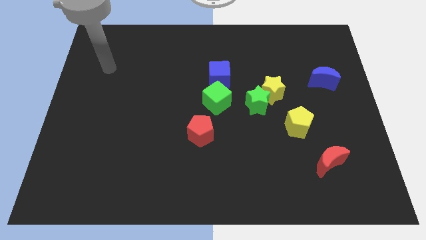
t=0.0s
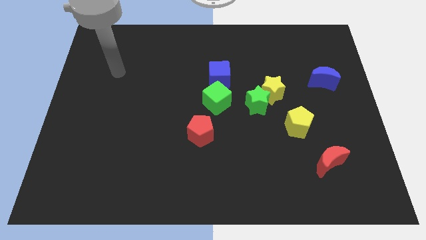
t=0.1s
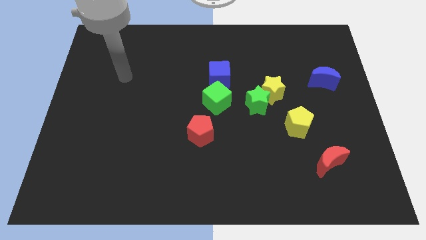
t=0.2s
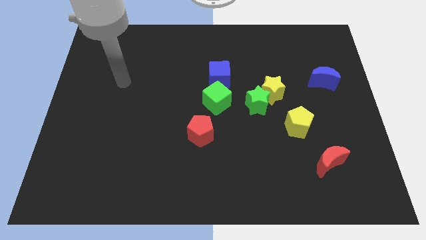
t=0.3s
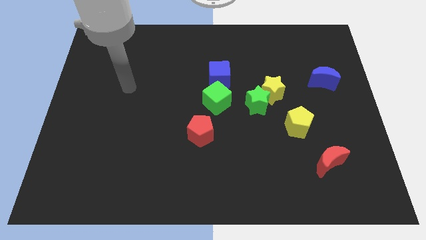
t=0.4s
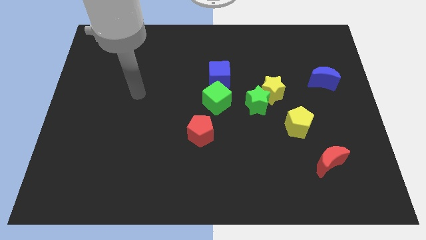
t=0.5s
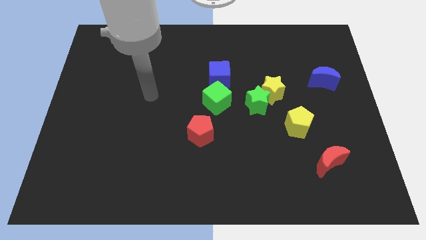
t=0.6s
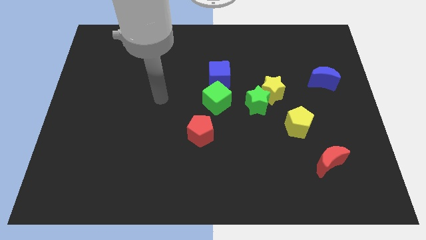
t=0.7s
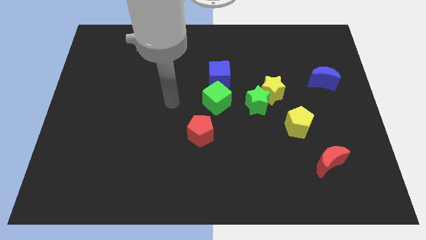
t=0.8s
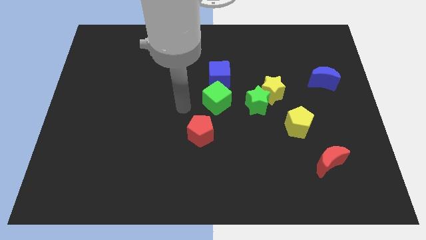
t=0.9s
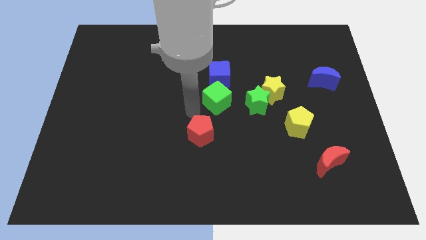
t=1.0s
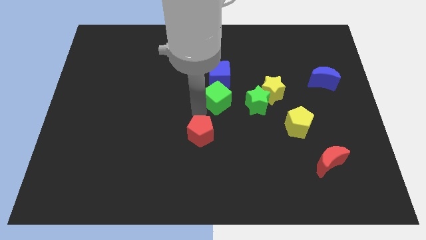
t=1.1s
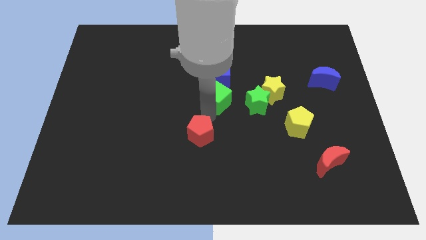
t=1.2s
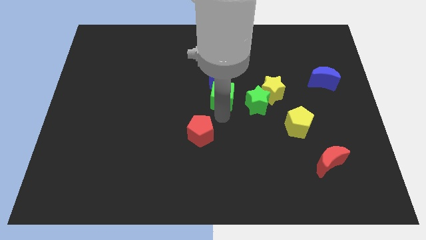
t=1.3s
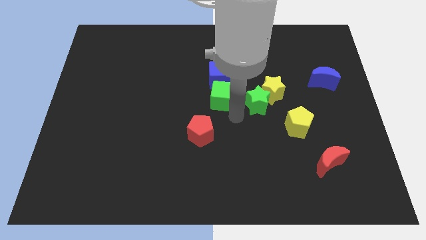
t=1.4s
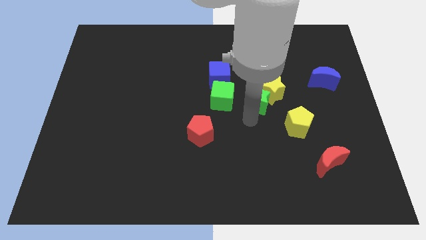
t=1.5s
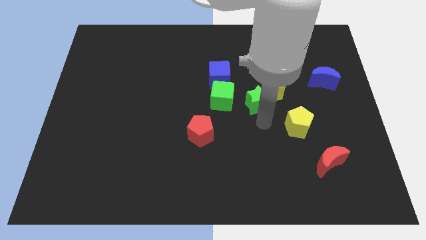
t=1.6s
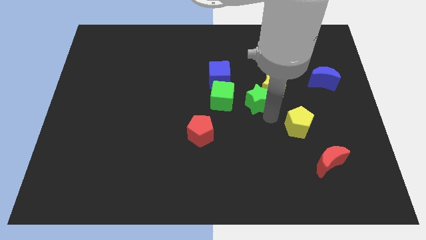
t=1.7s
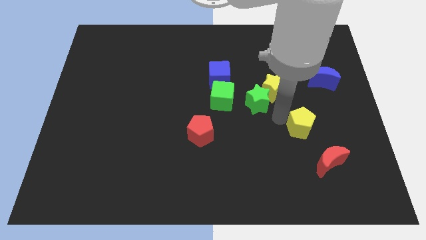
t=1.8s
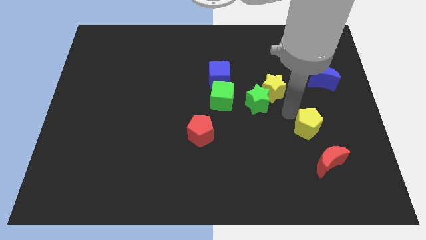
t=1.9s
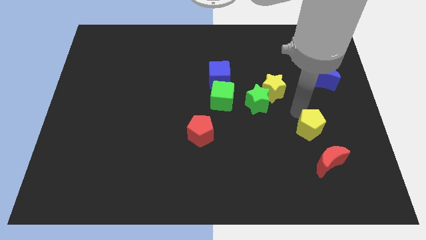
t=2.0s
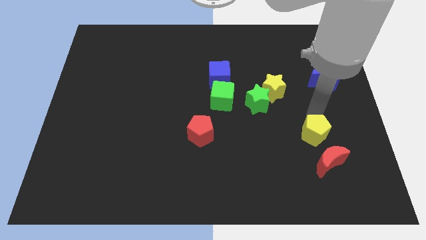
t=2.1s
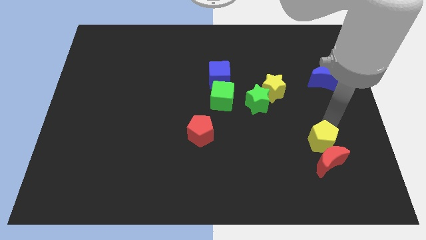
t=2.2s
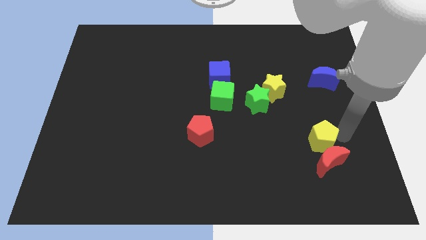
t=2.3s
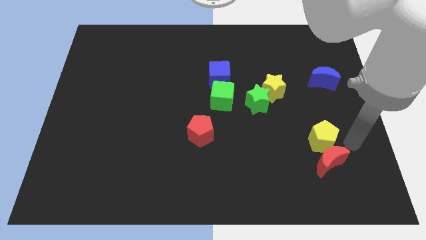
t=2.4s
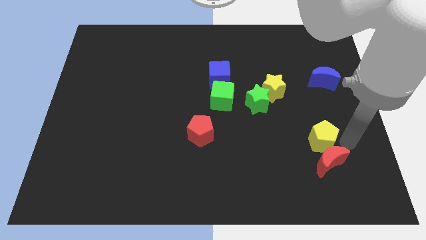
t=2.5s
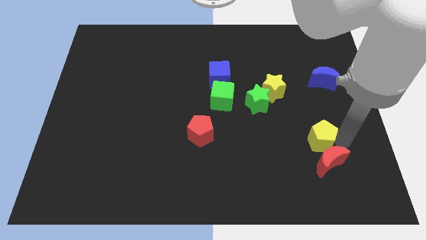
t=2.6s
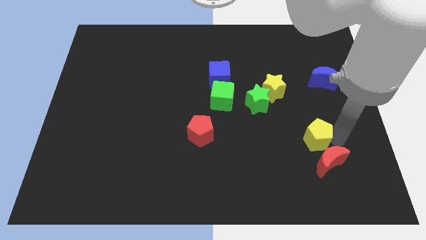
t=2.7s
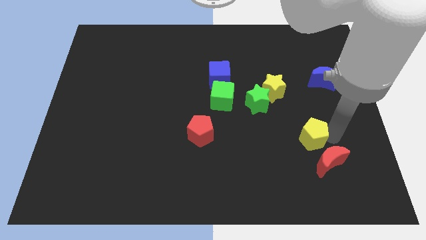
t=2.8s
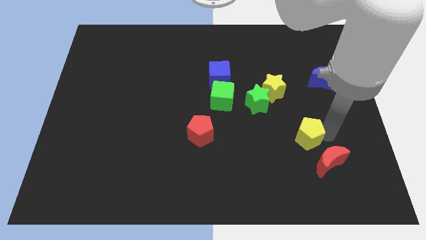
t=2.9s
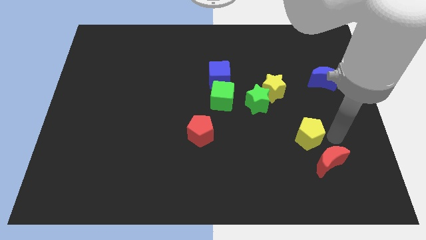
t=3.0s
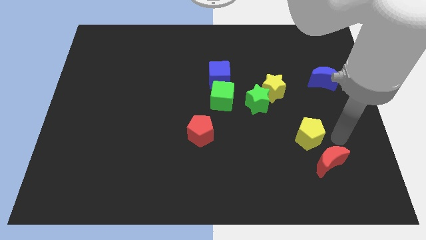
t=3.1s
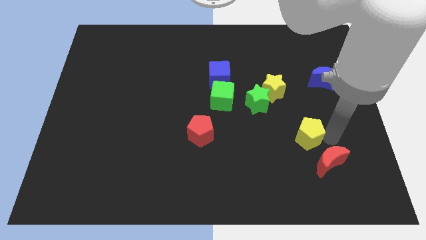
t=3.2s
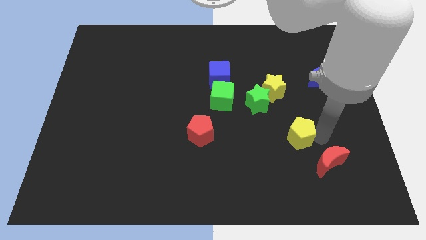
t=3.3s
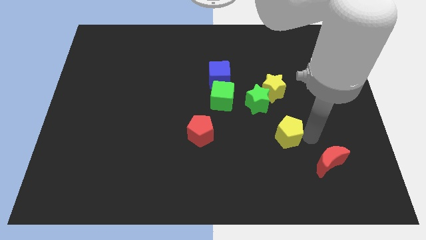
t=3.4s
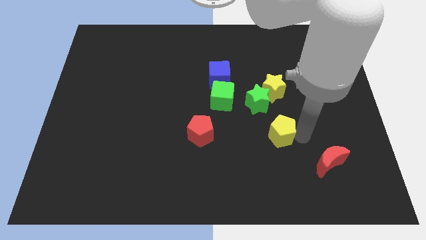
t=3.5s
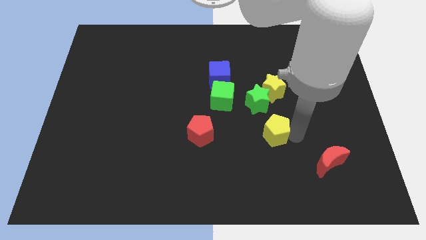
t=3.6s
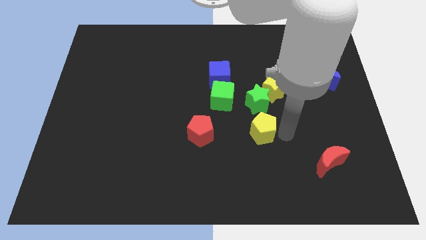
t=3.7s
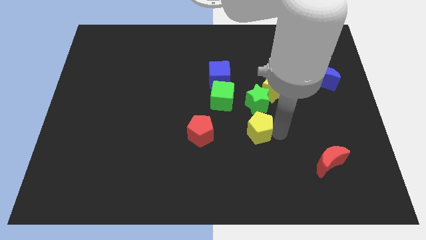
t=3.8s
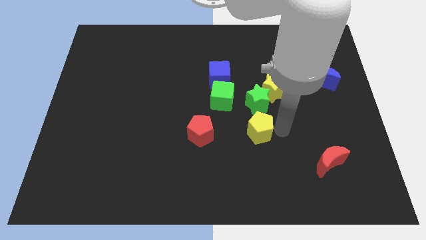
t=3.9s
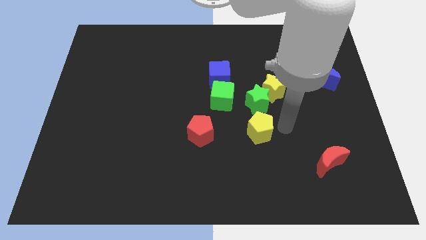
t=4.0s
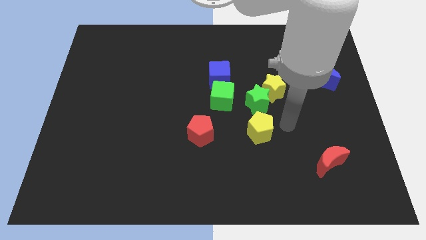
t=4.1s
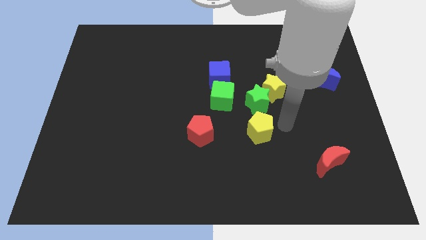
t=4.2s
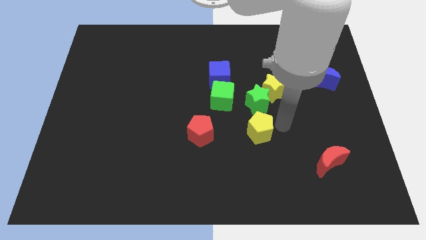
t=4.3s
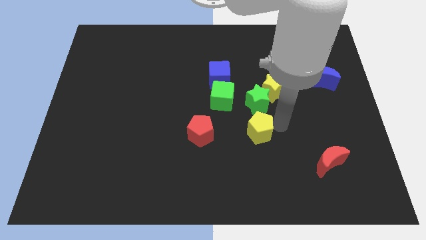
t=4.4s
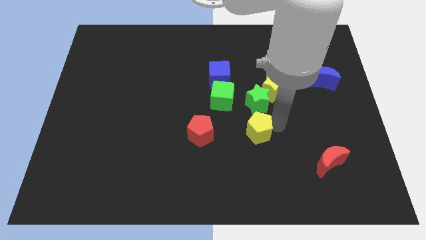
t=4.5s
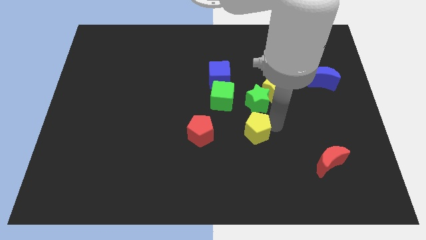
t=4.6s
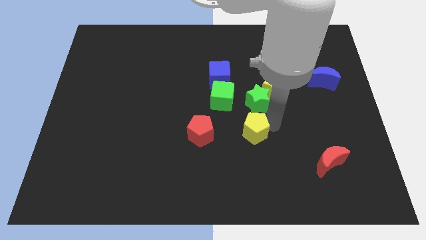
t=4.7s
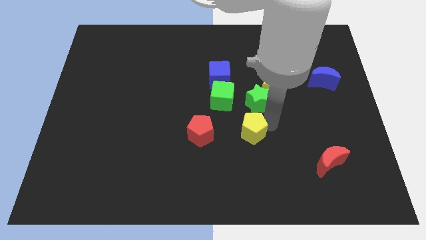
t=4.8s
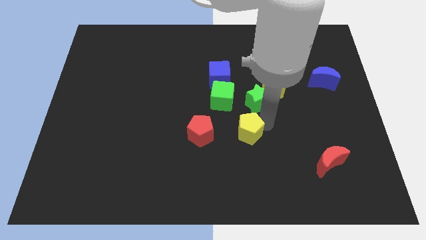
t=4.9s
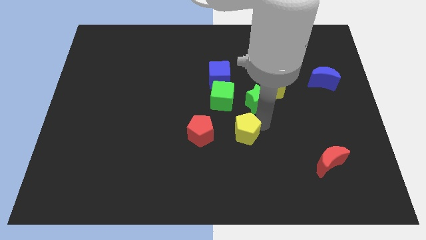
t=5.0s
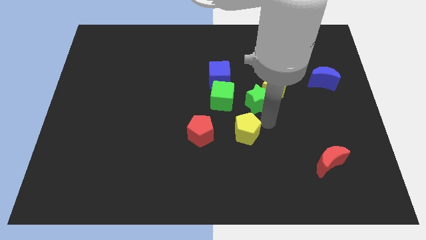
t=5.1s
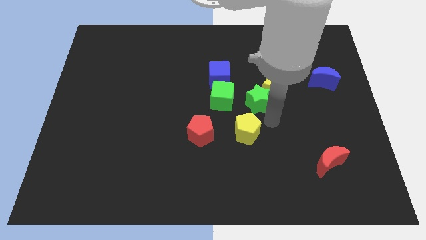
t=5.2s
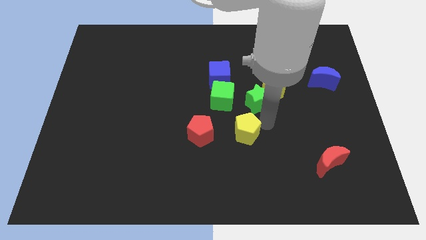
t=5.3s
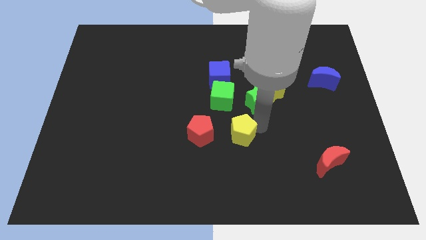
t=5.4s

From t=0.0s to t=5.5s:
move the yellow pentagon to the bottom side of the green cube

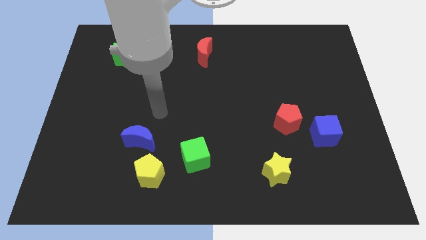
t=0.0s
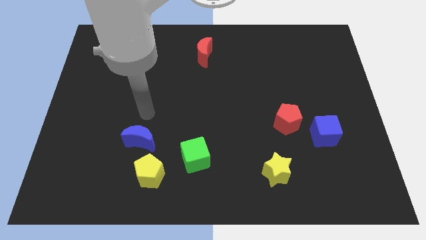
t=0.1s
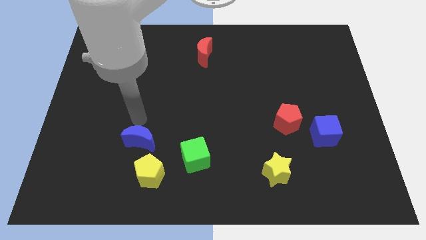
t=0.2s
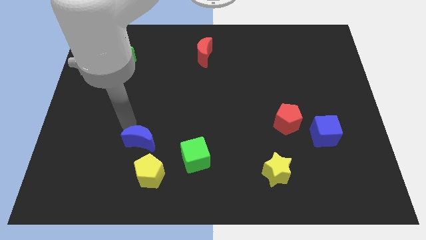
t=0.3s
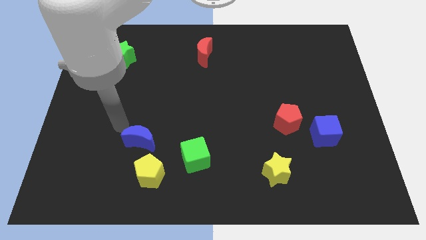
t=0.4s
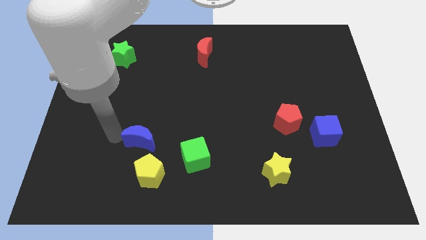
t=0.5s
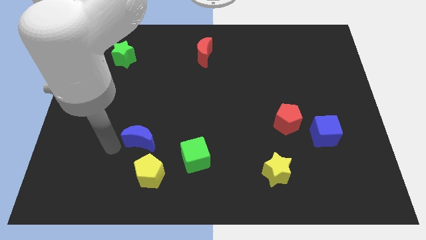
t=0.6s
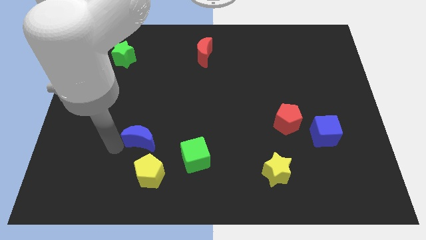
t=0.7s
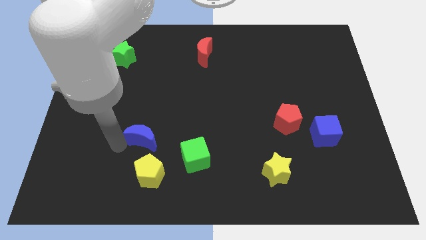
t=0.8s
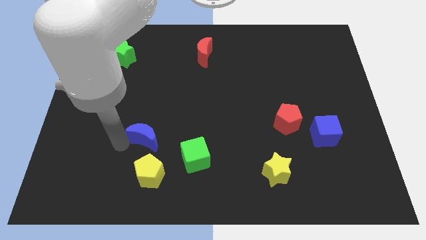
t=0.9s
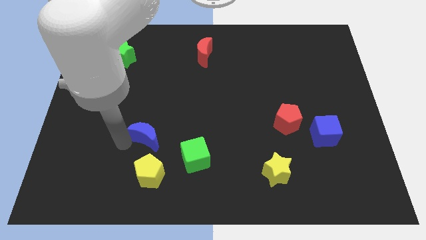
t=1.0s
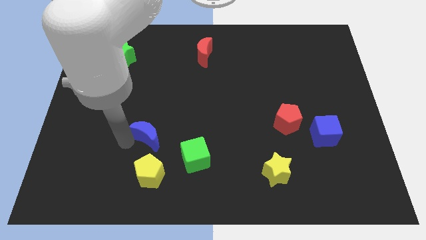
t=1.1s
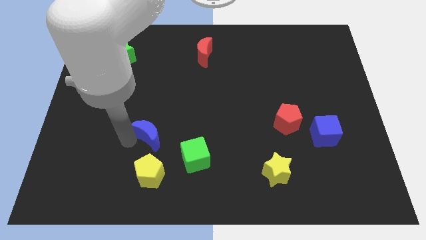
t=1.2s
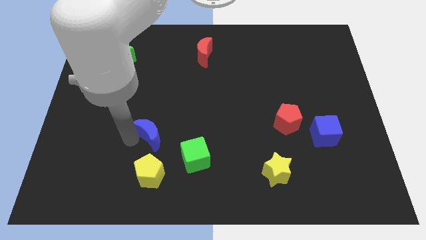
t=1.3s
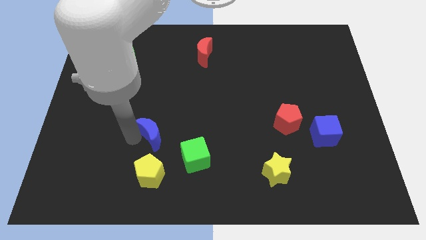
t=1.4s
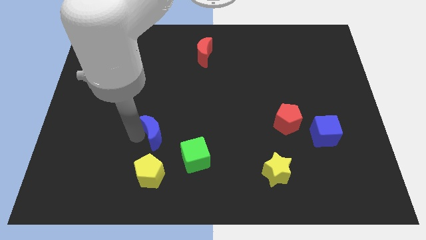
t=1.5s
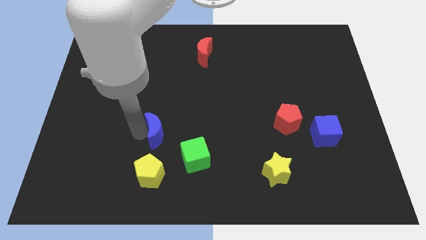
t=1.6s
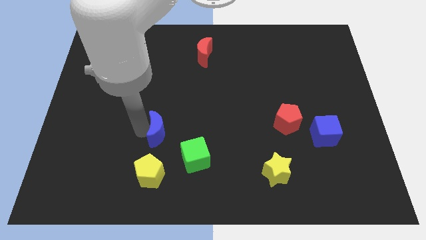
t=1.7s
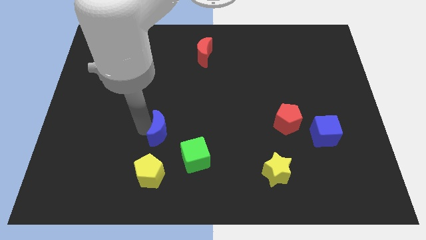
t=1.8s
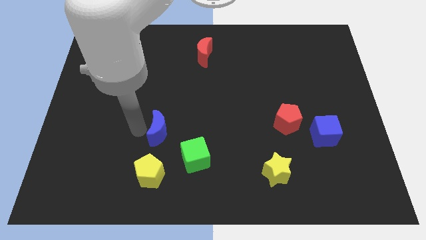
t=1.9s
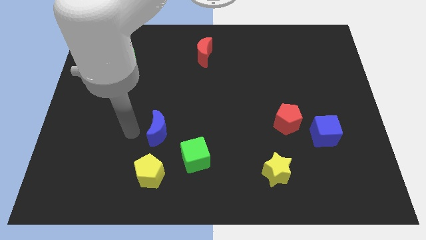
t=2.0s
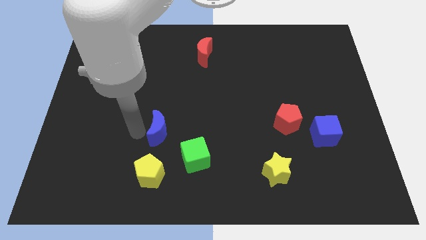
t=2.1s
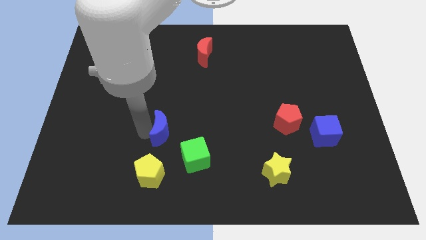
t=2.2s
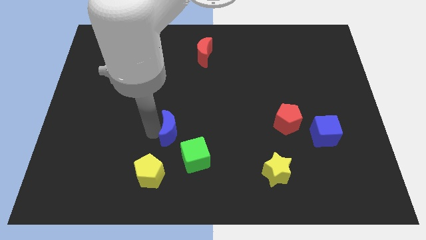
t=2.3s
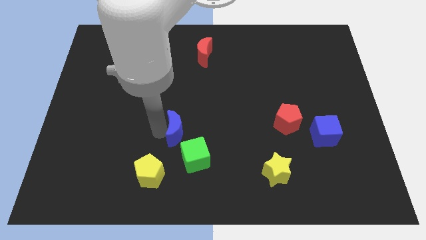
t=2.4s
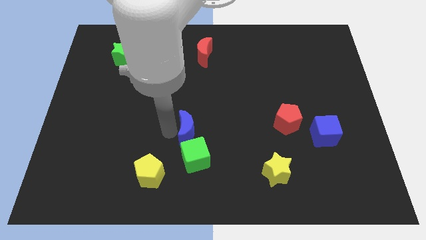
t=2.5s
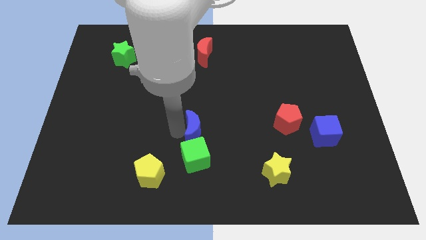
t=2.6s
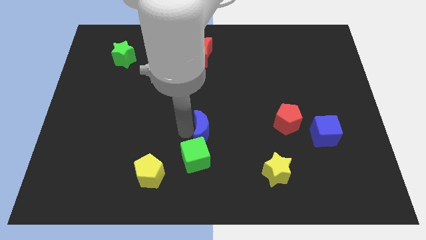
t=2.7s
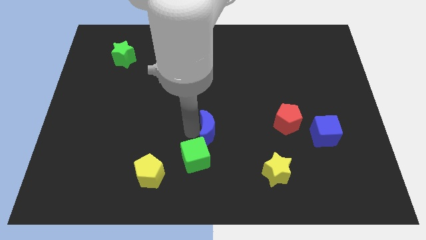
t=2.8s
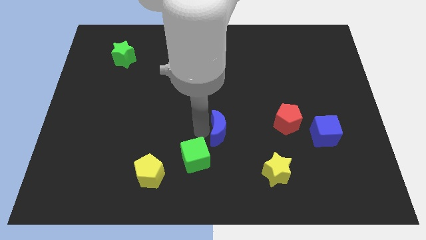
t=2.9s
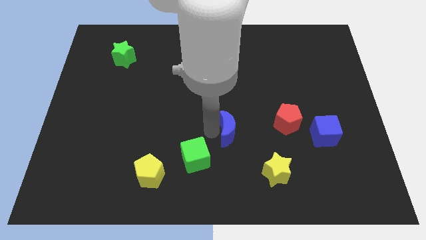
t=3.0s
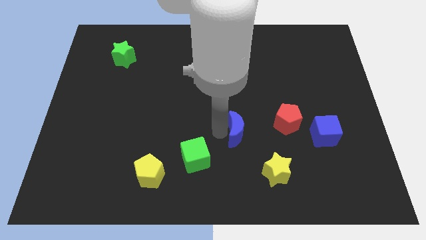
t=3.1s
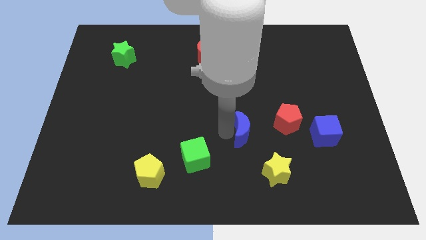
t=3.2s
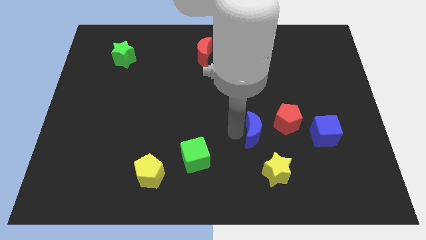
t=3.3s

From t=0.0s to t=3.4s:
put the blue moon left of the blue cube

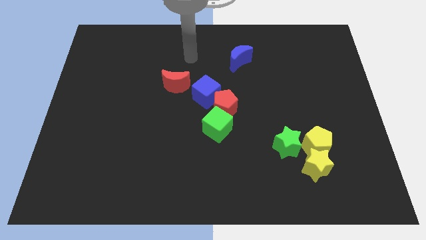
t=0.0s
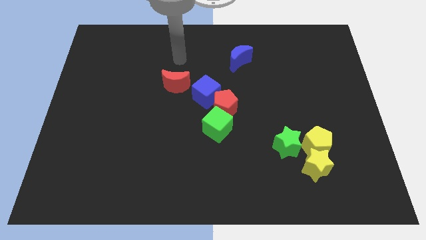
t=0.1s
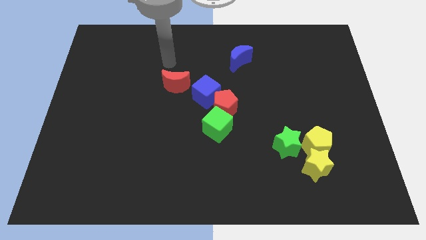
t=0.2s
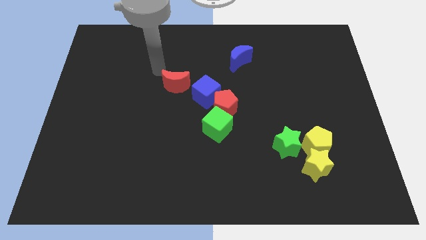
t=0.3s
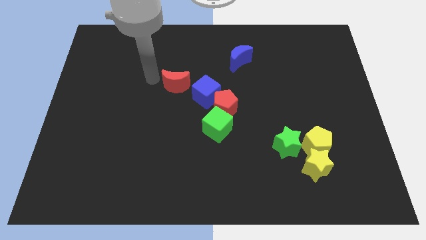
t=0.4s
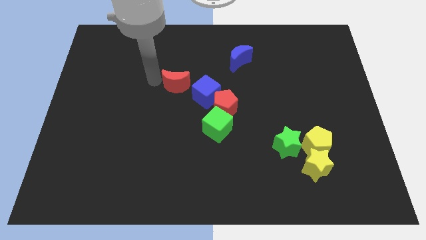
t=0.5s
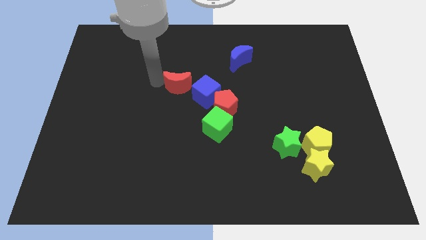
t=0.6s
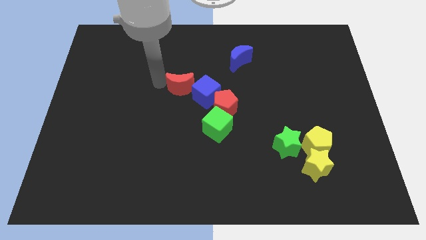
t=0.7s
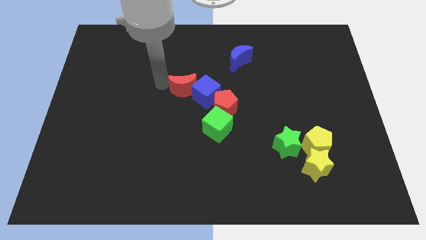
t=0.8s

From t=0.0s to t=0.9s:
push the red moon to the top left of the red pentagon
